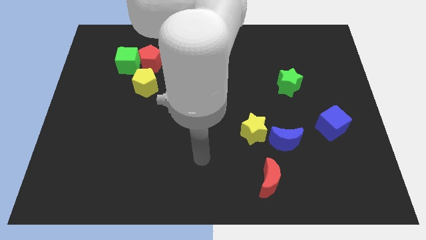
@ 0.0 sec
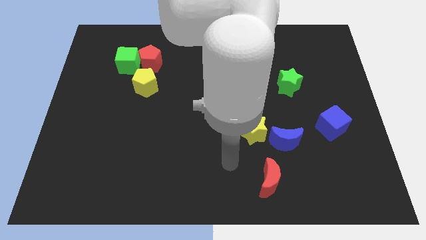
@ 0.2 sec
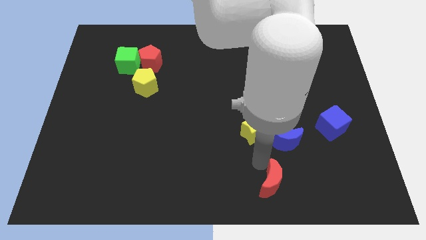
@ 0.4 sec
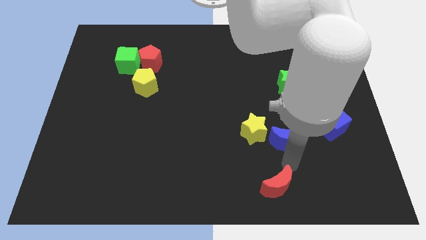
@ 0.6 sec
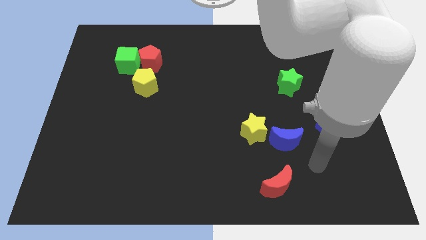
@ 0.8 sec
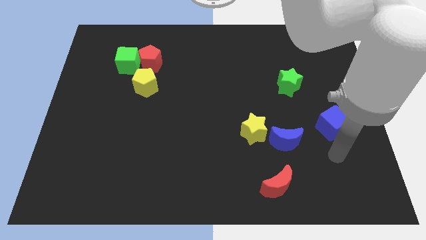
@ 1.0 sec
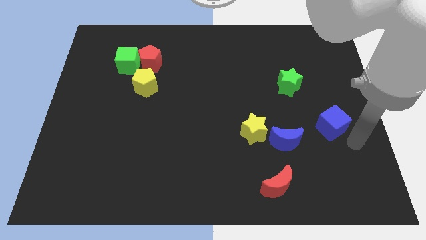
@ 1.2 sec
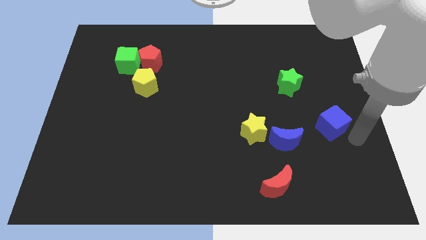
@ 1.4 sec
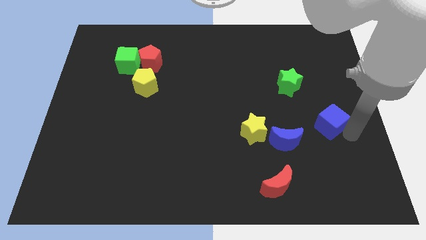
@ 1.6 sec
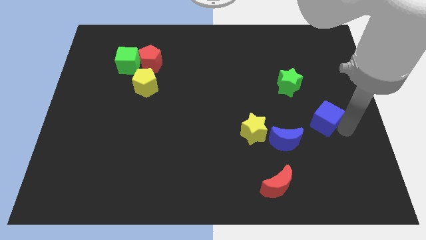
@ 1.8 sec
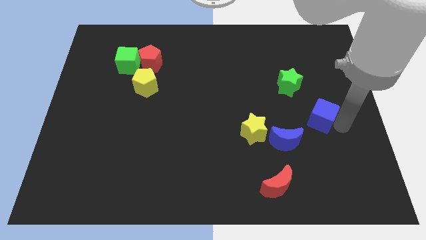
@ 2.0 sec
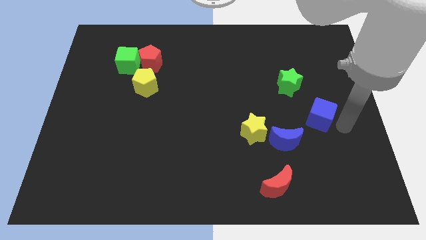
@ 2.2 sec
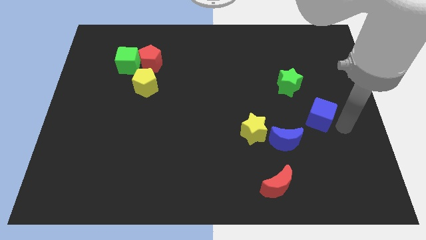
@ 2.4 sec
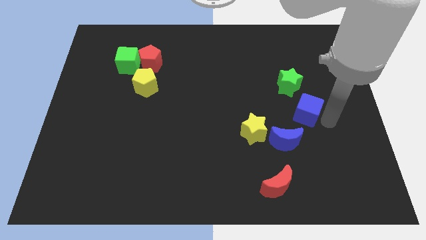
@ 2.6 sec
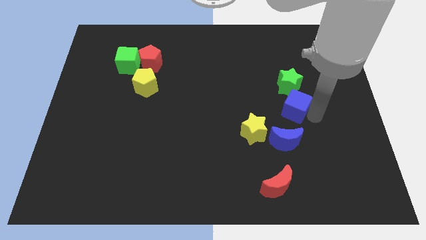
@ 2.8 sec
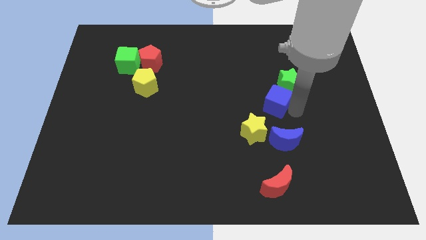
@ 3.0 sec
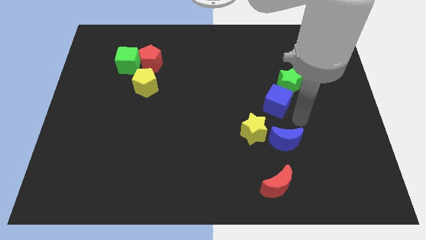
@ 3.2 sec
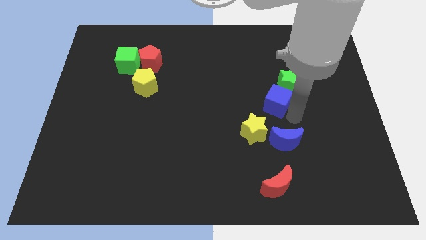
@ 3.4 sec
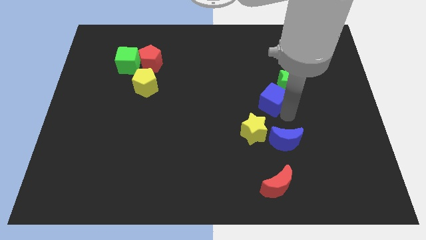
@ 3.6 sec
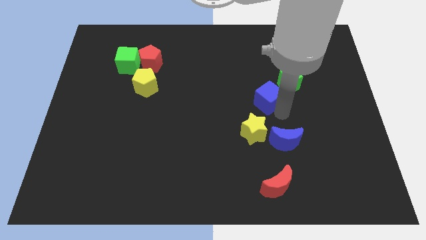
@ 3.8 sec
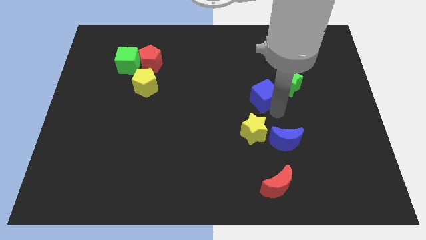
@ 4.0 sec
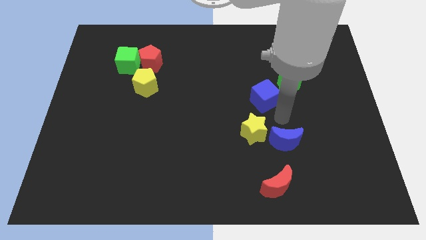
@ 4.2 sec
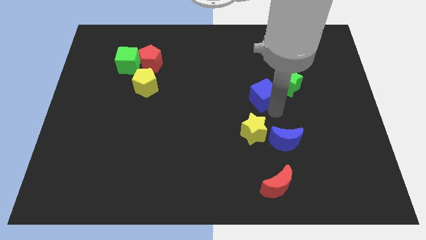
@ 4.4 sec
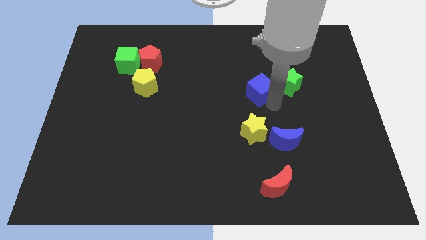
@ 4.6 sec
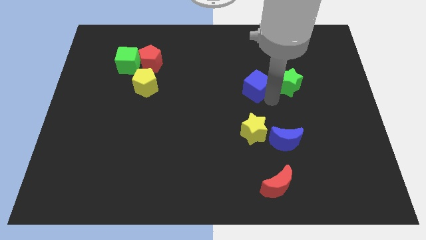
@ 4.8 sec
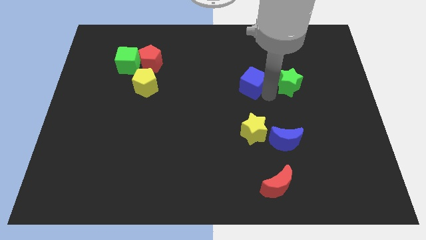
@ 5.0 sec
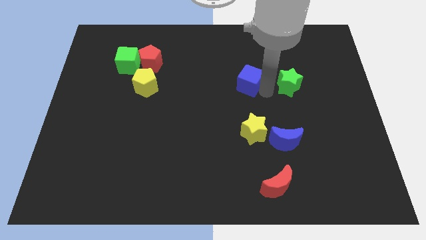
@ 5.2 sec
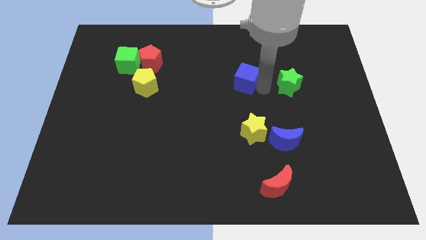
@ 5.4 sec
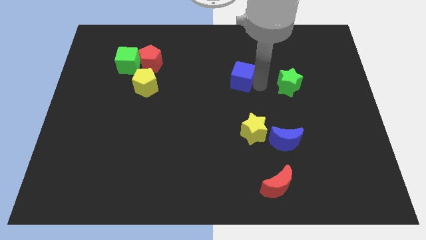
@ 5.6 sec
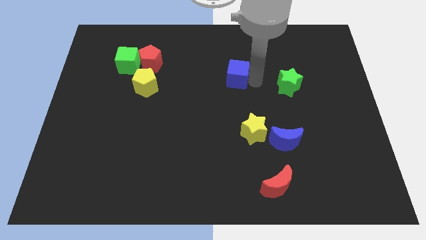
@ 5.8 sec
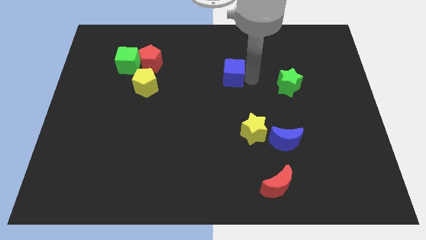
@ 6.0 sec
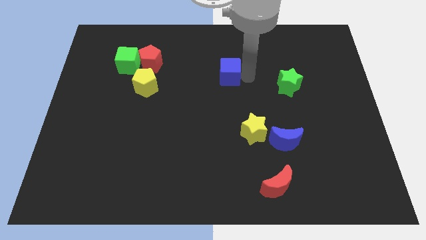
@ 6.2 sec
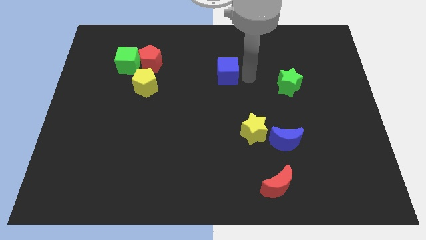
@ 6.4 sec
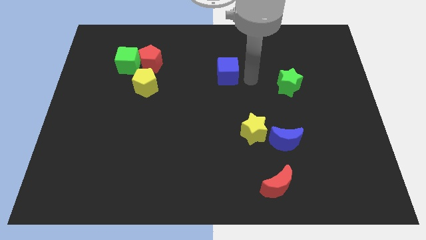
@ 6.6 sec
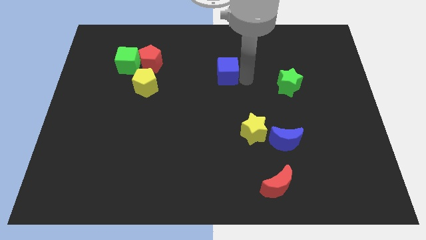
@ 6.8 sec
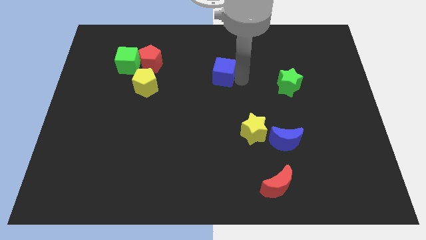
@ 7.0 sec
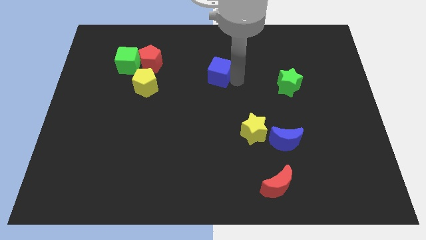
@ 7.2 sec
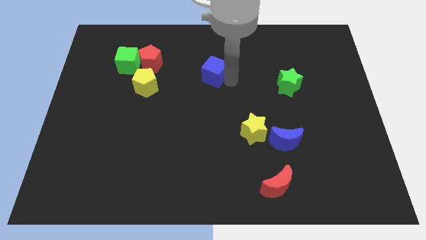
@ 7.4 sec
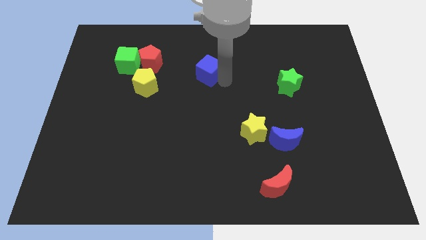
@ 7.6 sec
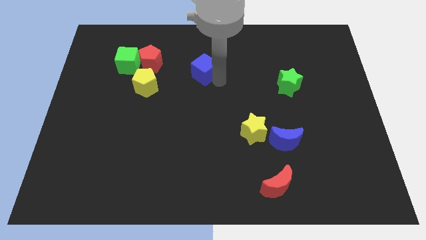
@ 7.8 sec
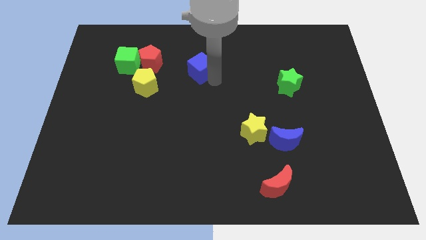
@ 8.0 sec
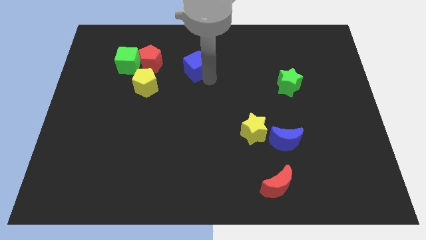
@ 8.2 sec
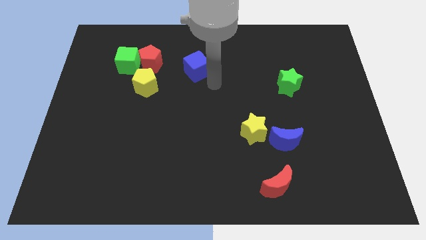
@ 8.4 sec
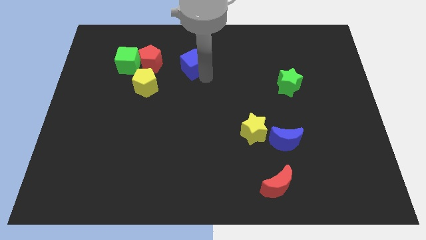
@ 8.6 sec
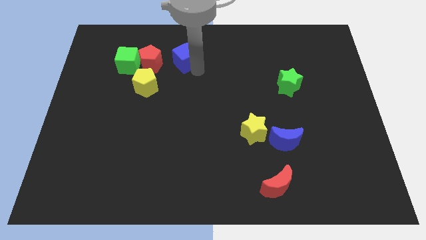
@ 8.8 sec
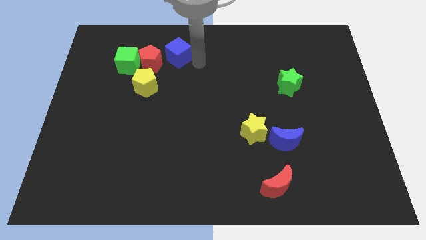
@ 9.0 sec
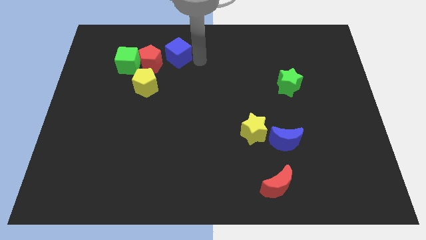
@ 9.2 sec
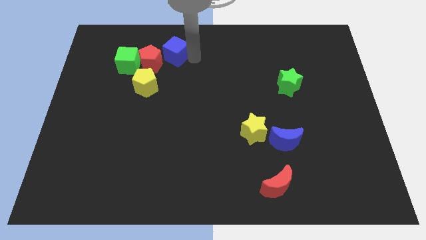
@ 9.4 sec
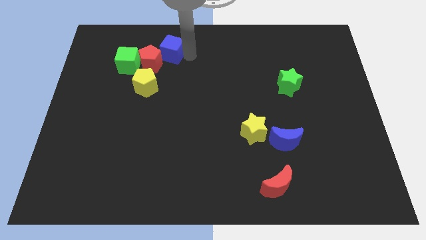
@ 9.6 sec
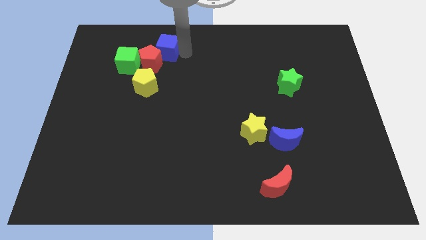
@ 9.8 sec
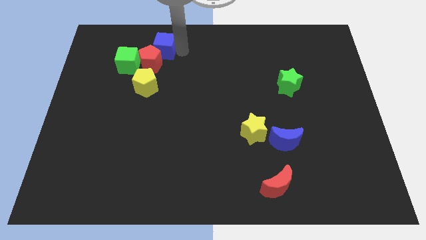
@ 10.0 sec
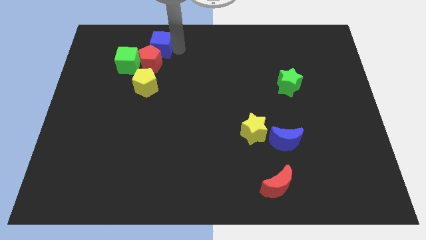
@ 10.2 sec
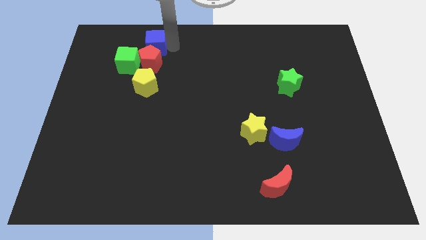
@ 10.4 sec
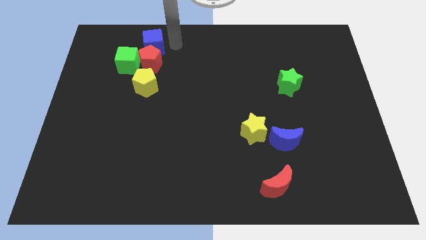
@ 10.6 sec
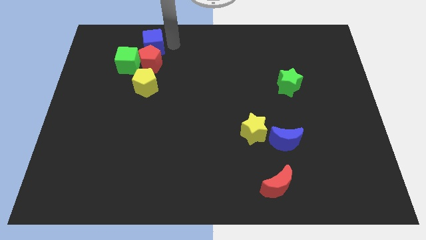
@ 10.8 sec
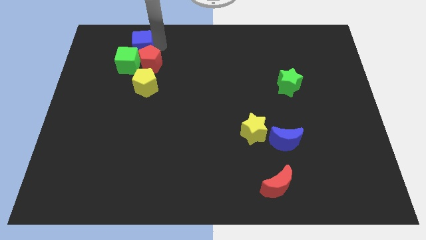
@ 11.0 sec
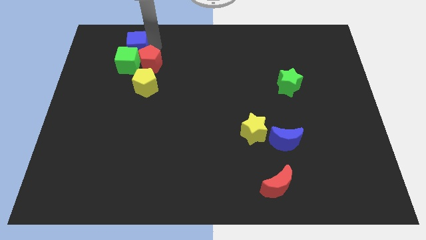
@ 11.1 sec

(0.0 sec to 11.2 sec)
put the blue cube to the green cube

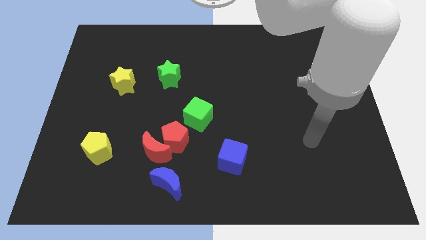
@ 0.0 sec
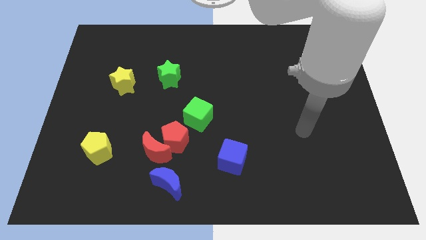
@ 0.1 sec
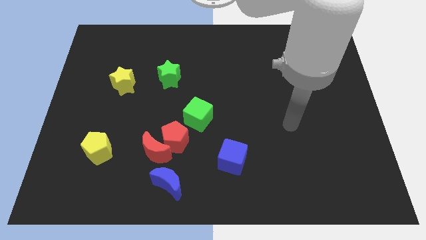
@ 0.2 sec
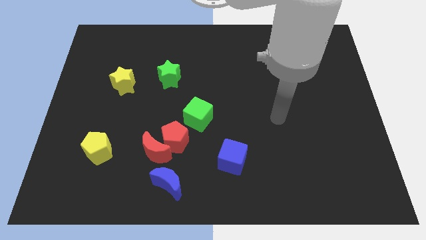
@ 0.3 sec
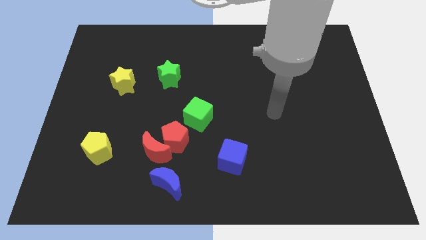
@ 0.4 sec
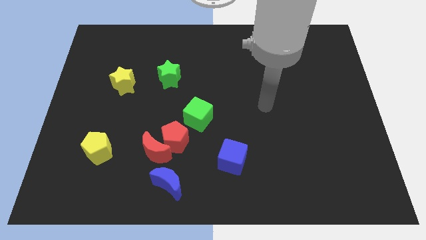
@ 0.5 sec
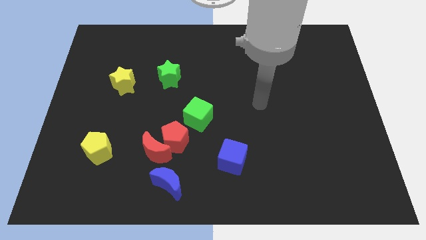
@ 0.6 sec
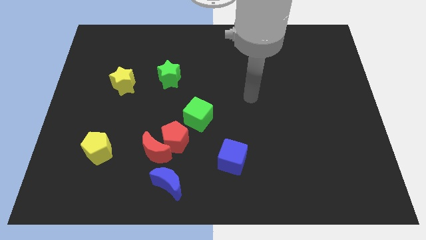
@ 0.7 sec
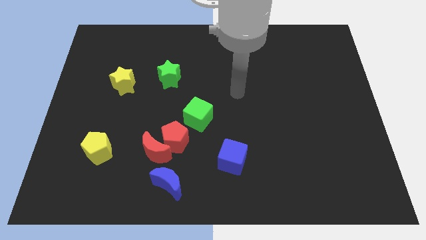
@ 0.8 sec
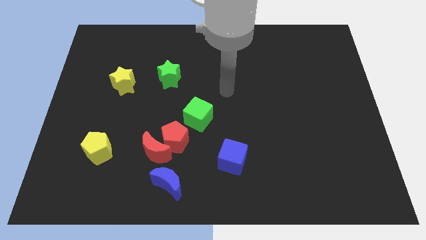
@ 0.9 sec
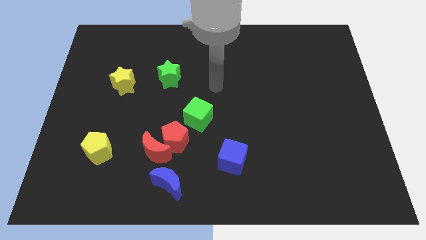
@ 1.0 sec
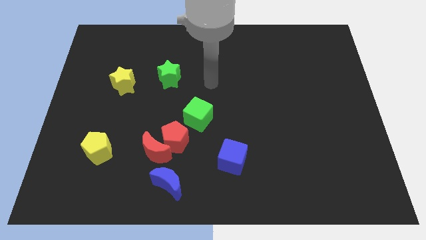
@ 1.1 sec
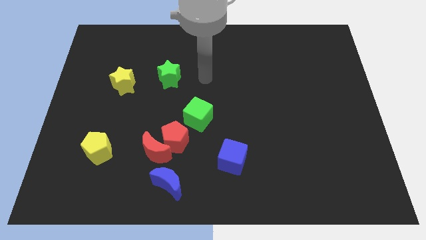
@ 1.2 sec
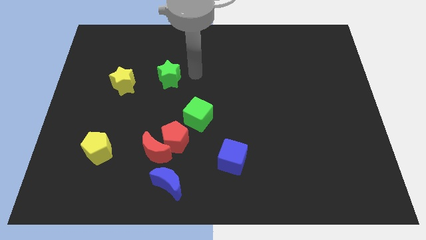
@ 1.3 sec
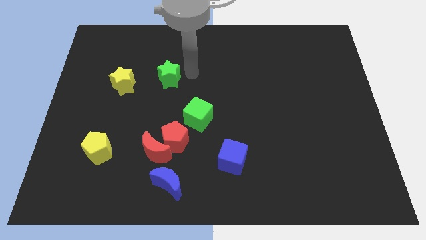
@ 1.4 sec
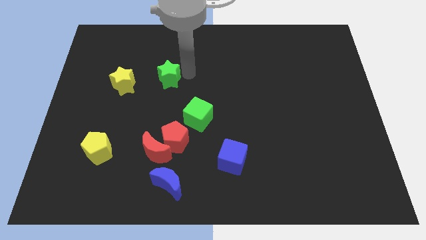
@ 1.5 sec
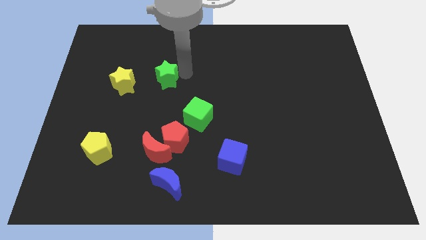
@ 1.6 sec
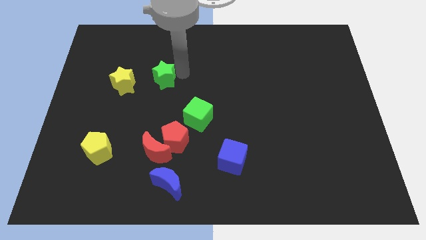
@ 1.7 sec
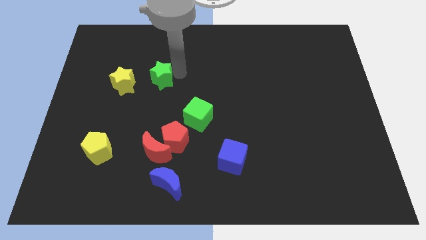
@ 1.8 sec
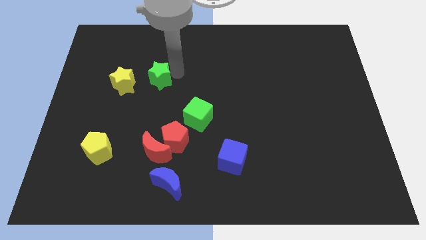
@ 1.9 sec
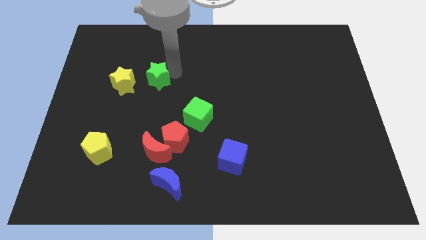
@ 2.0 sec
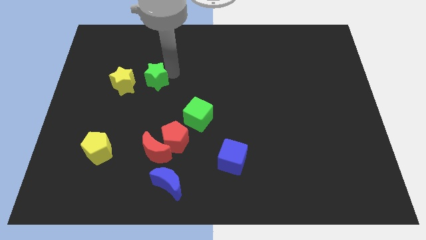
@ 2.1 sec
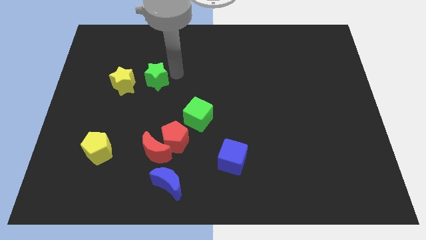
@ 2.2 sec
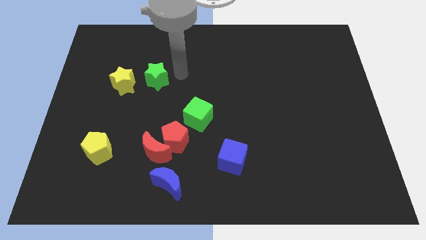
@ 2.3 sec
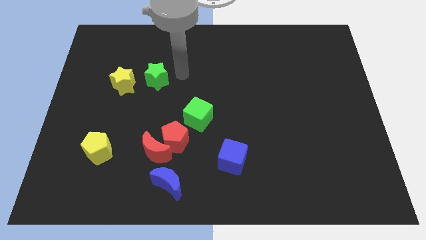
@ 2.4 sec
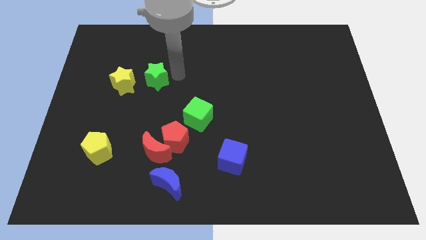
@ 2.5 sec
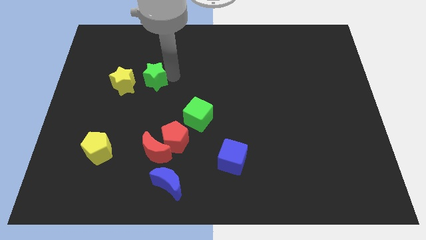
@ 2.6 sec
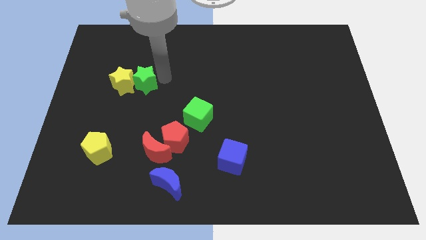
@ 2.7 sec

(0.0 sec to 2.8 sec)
move the green star towards the yellow star
